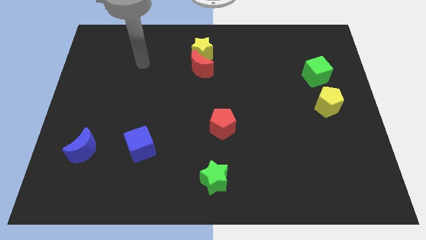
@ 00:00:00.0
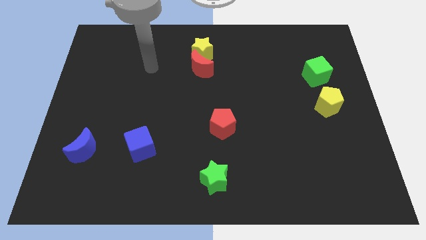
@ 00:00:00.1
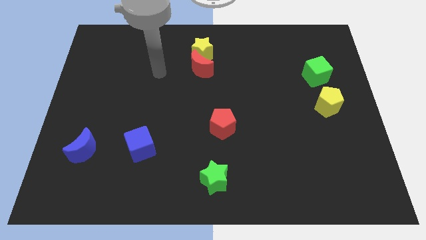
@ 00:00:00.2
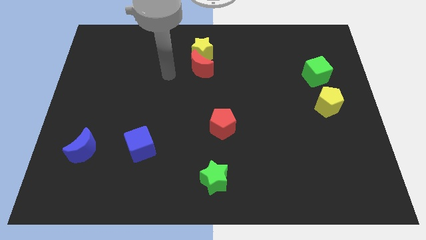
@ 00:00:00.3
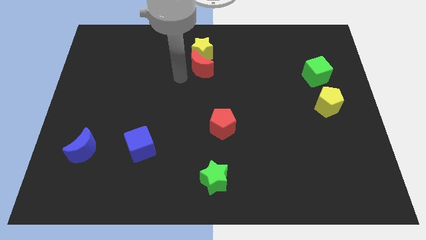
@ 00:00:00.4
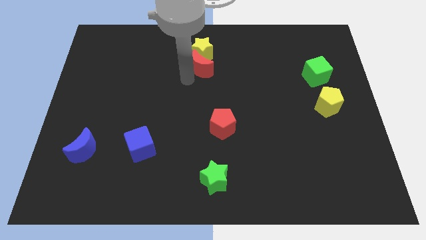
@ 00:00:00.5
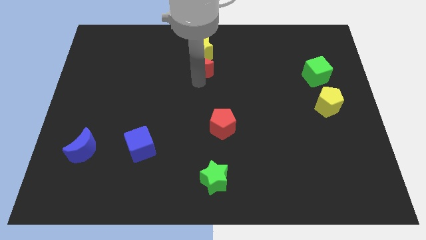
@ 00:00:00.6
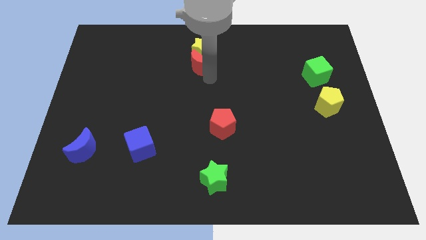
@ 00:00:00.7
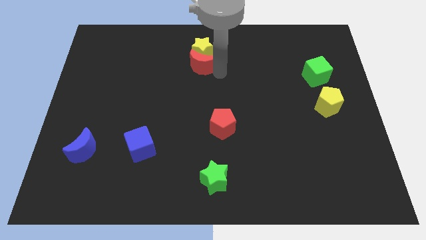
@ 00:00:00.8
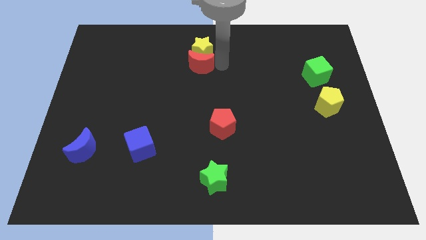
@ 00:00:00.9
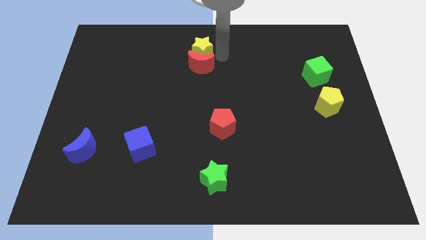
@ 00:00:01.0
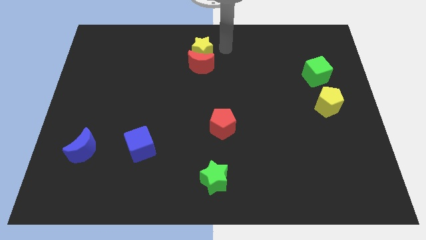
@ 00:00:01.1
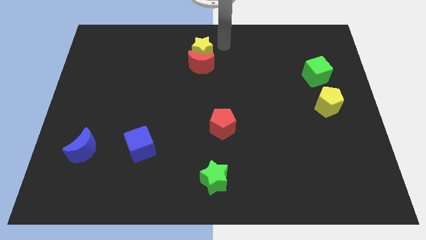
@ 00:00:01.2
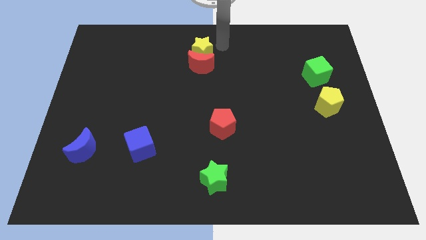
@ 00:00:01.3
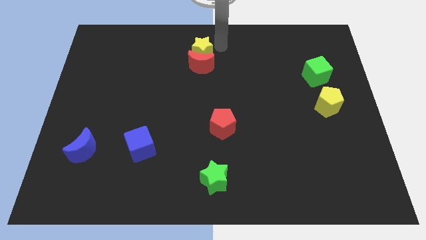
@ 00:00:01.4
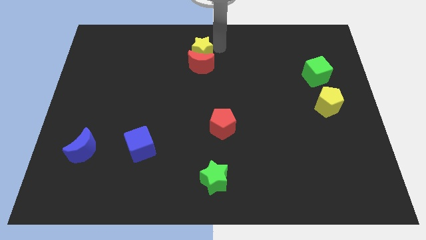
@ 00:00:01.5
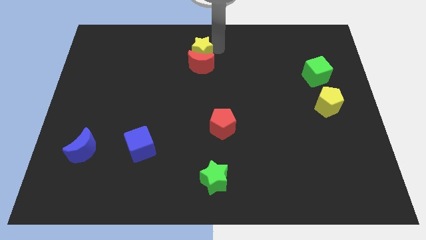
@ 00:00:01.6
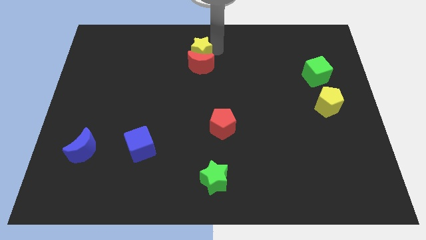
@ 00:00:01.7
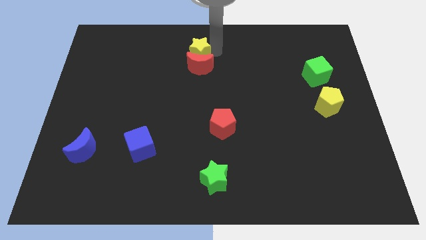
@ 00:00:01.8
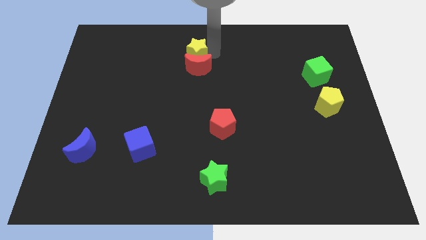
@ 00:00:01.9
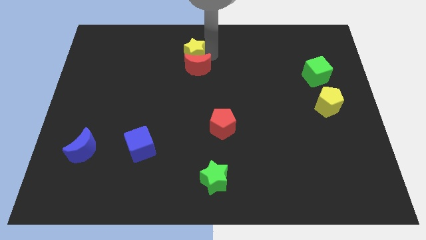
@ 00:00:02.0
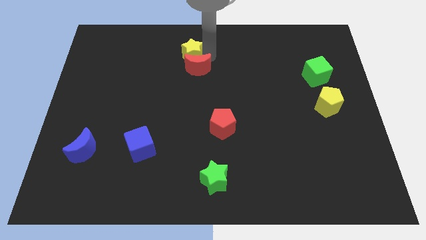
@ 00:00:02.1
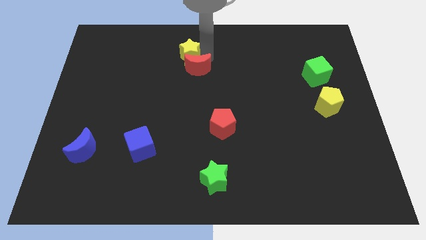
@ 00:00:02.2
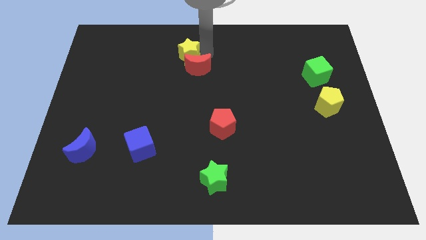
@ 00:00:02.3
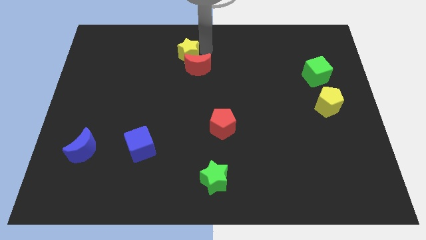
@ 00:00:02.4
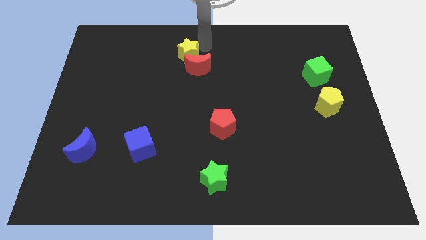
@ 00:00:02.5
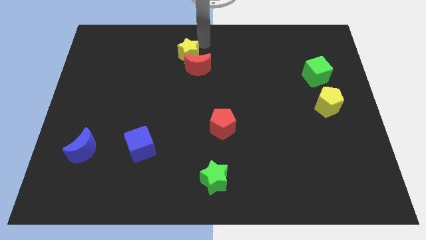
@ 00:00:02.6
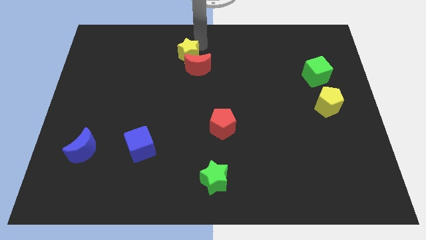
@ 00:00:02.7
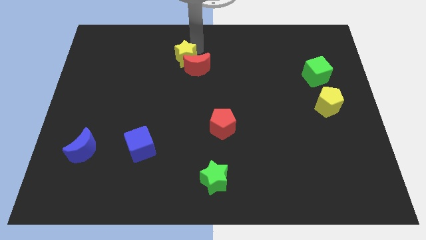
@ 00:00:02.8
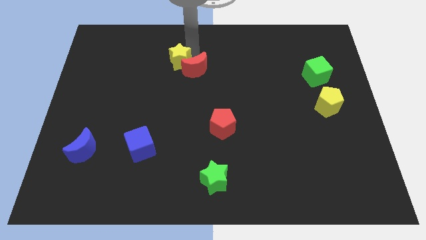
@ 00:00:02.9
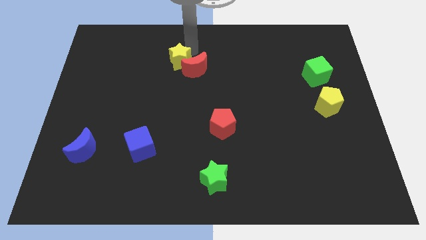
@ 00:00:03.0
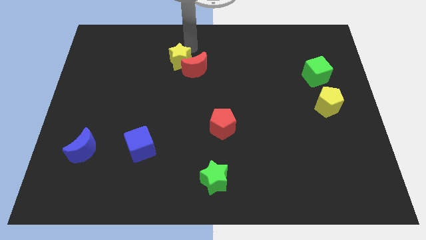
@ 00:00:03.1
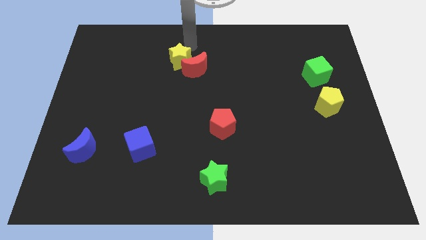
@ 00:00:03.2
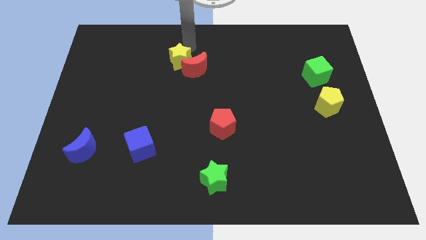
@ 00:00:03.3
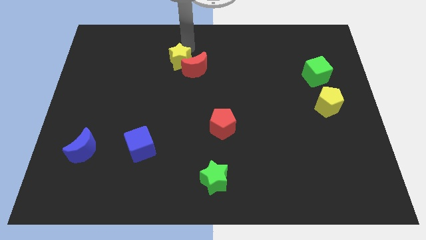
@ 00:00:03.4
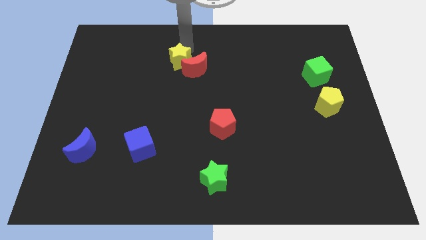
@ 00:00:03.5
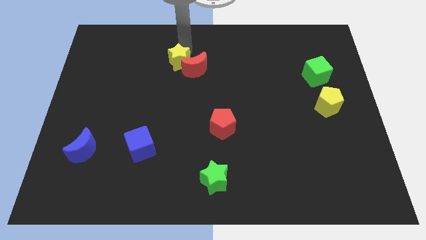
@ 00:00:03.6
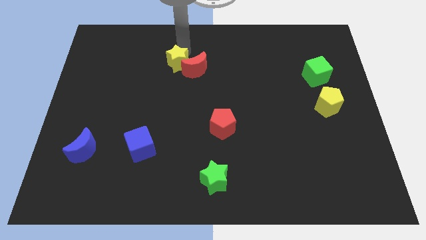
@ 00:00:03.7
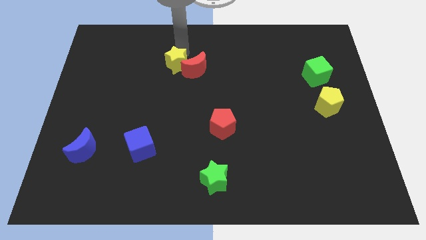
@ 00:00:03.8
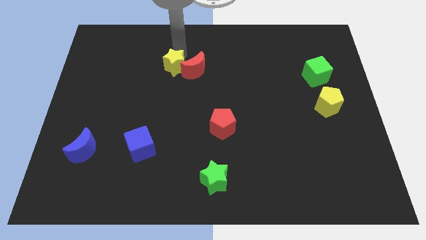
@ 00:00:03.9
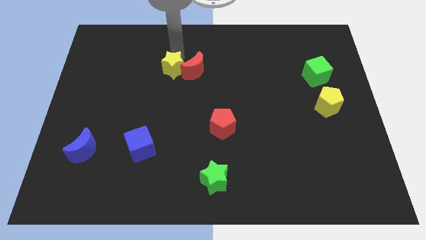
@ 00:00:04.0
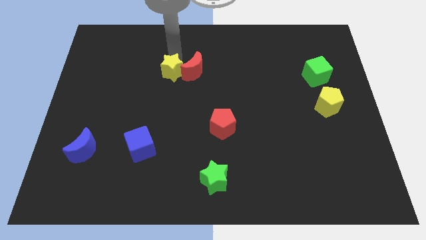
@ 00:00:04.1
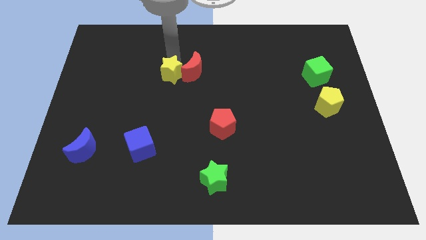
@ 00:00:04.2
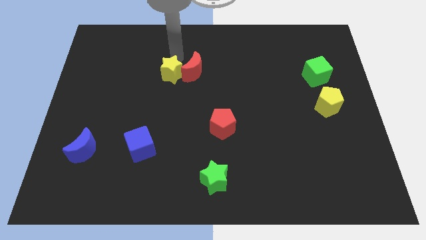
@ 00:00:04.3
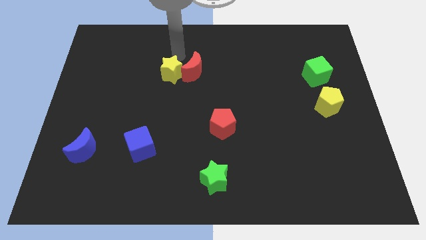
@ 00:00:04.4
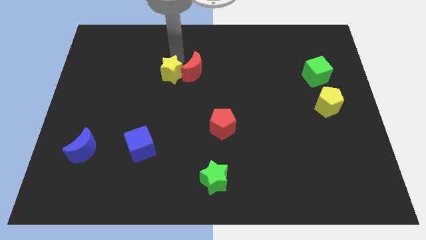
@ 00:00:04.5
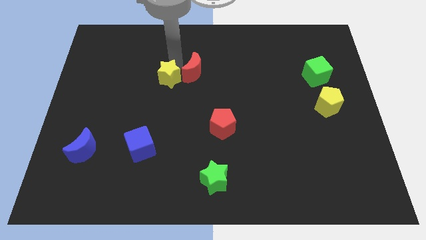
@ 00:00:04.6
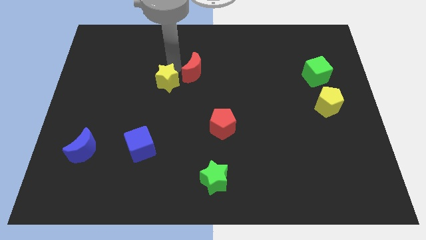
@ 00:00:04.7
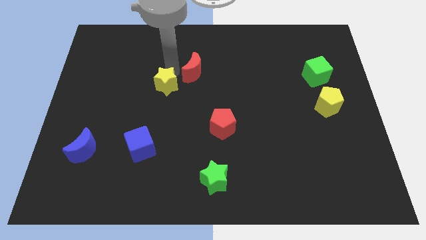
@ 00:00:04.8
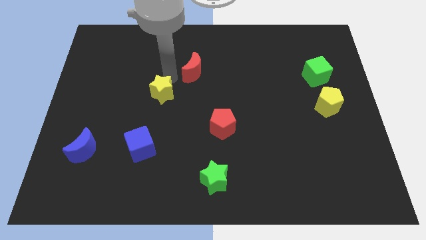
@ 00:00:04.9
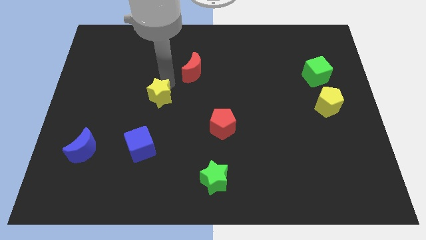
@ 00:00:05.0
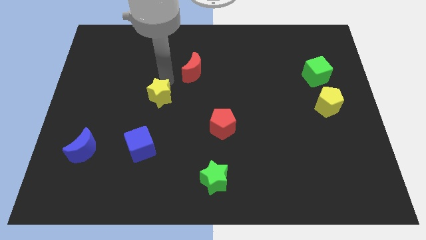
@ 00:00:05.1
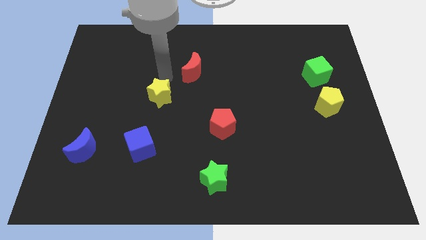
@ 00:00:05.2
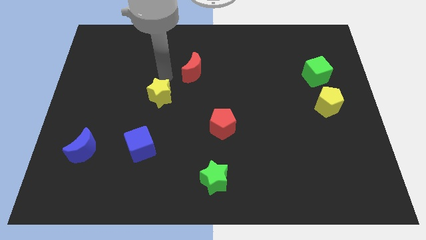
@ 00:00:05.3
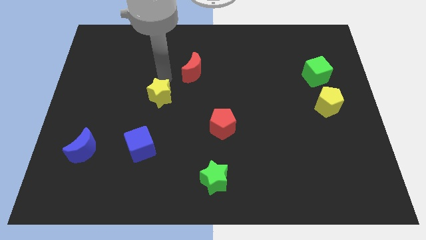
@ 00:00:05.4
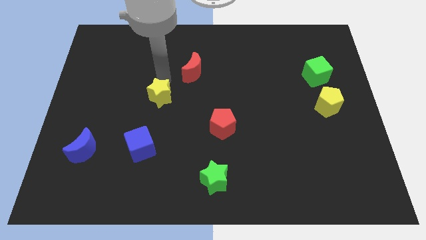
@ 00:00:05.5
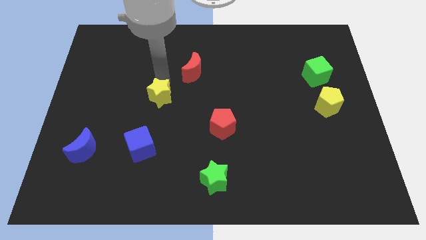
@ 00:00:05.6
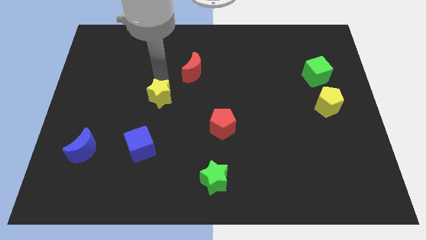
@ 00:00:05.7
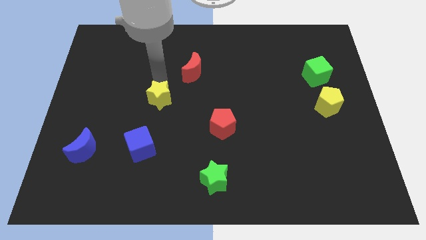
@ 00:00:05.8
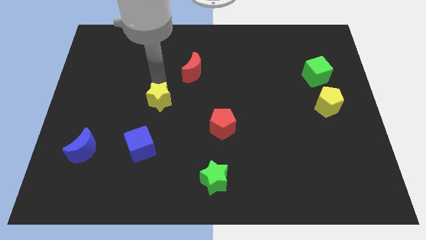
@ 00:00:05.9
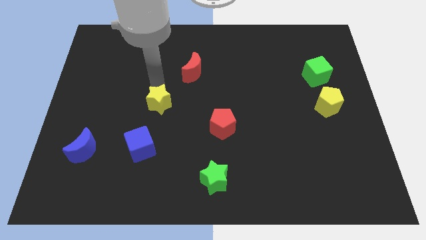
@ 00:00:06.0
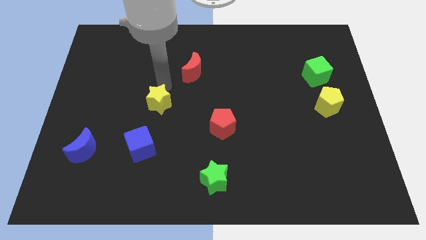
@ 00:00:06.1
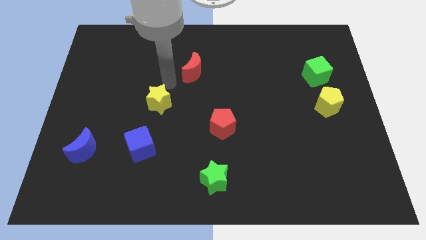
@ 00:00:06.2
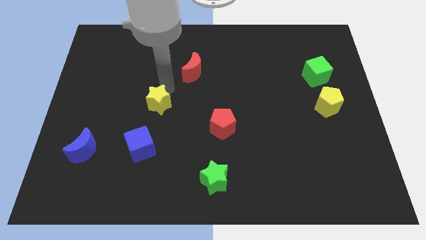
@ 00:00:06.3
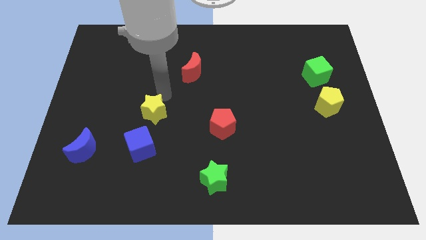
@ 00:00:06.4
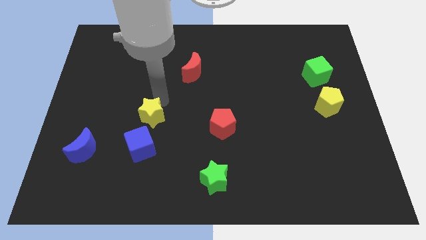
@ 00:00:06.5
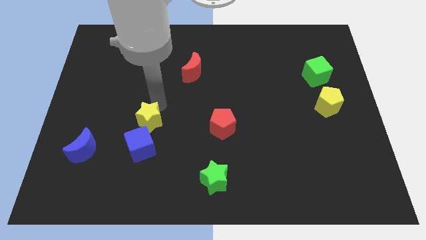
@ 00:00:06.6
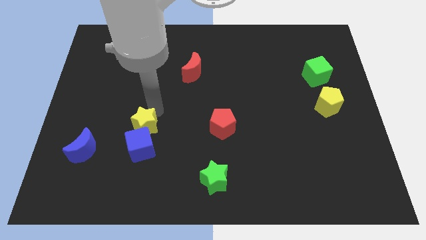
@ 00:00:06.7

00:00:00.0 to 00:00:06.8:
push the yellow star next to the blue cube

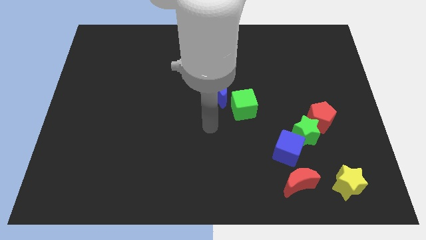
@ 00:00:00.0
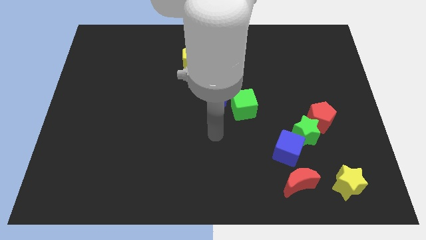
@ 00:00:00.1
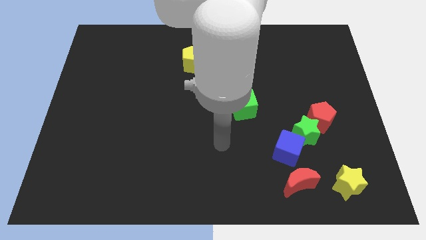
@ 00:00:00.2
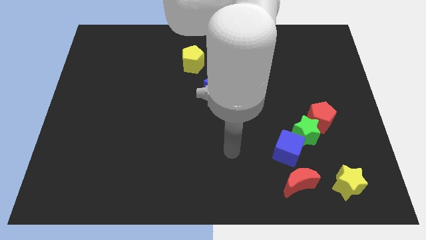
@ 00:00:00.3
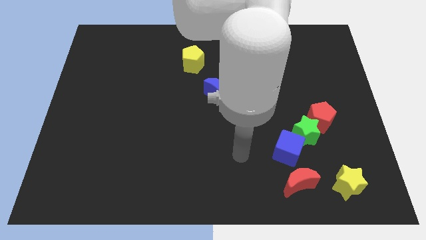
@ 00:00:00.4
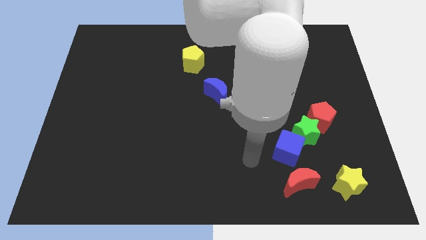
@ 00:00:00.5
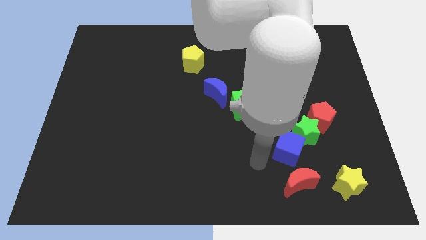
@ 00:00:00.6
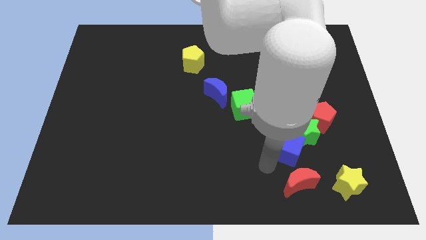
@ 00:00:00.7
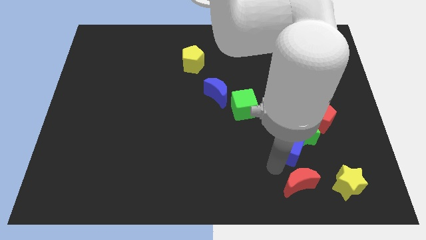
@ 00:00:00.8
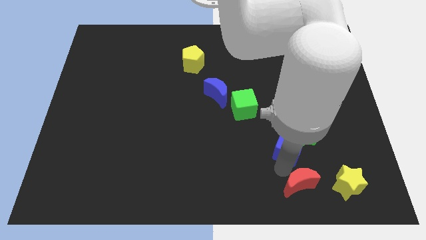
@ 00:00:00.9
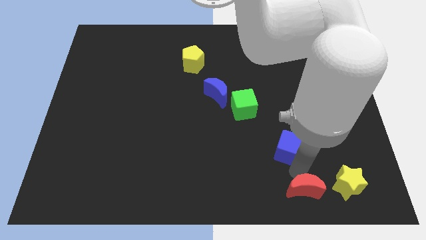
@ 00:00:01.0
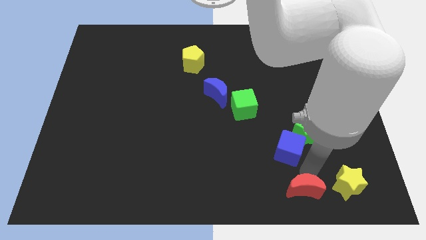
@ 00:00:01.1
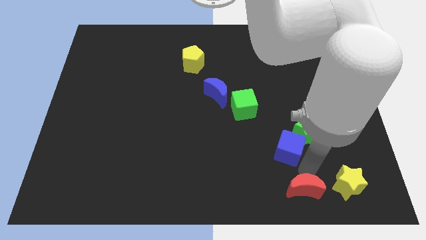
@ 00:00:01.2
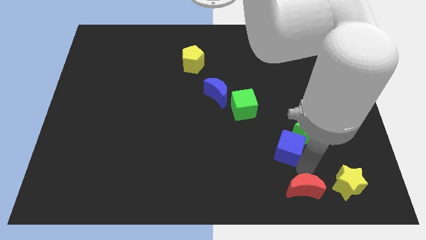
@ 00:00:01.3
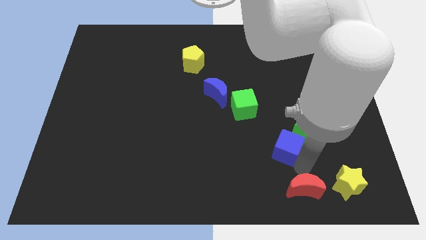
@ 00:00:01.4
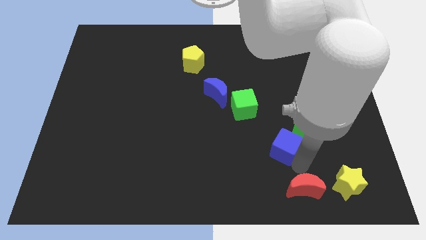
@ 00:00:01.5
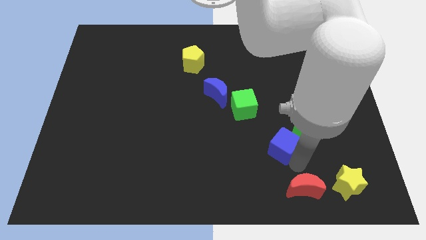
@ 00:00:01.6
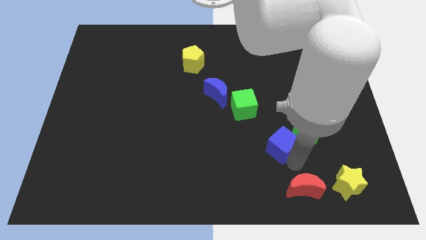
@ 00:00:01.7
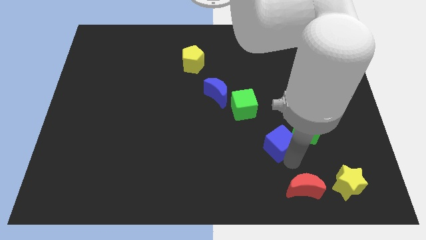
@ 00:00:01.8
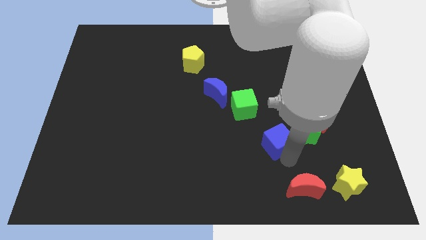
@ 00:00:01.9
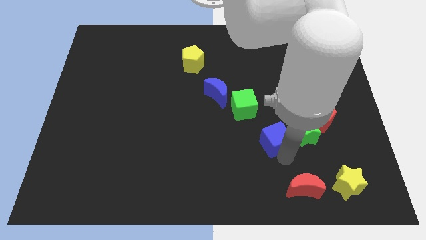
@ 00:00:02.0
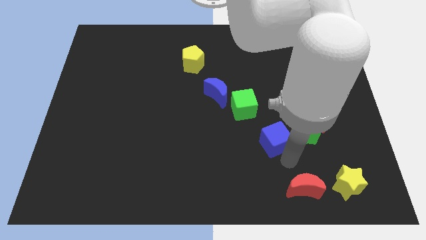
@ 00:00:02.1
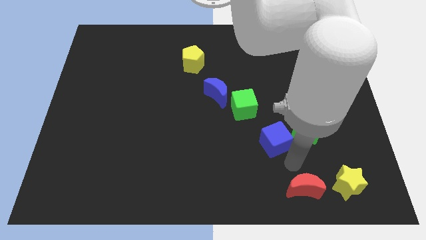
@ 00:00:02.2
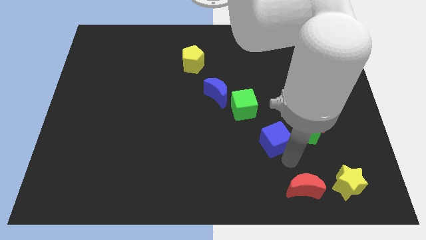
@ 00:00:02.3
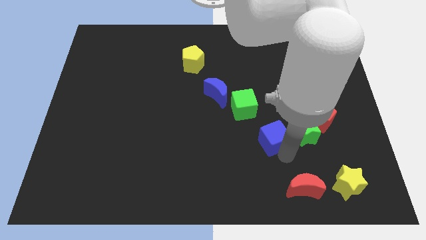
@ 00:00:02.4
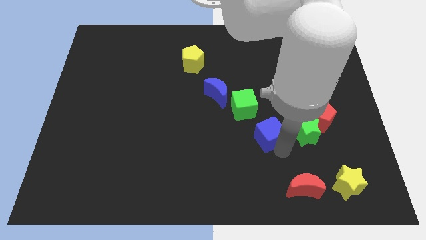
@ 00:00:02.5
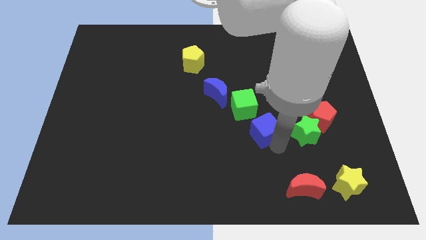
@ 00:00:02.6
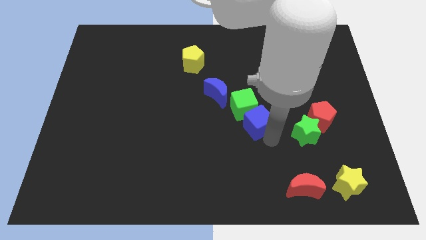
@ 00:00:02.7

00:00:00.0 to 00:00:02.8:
put the blue cube close to the green cube
